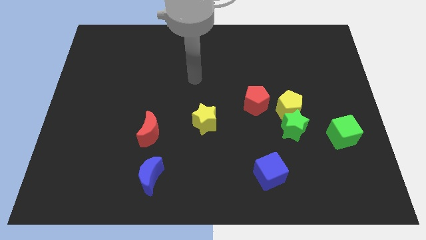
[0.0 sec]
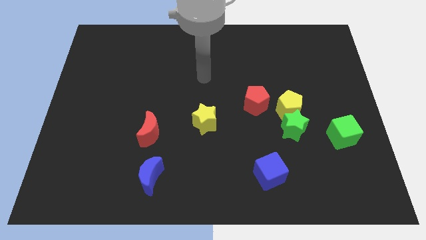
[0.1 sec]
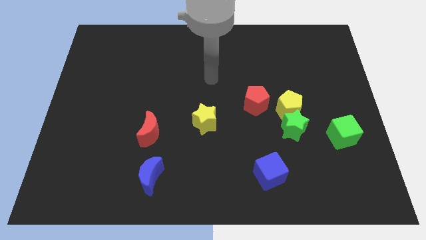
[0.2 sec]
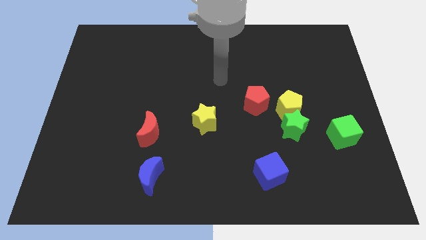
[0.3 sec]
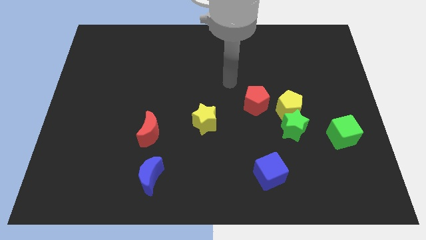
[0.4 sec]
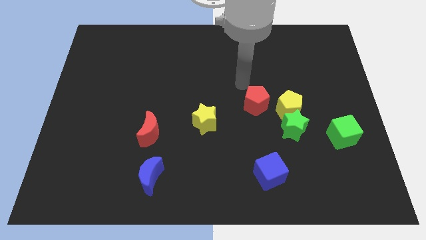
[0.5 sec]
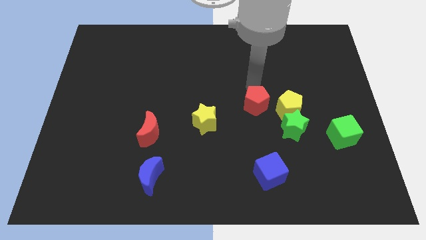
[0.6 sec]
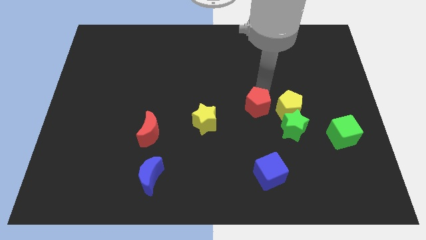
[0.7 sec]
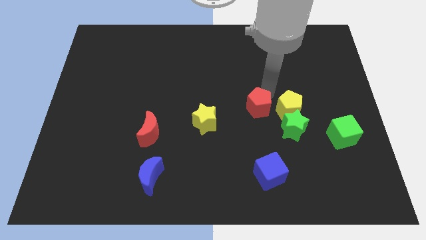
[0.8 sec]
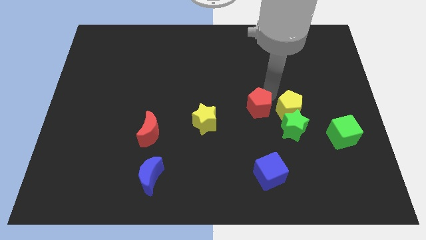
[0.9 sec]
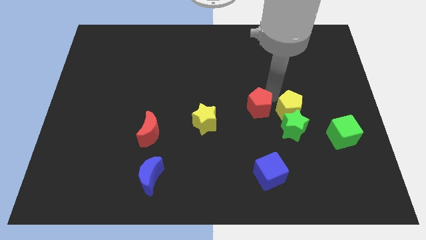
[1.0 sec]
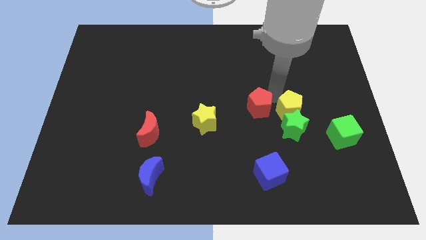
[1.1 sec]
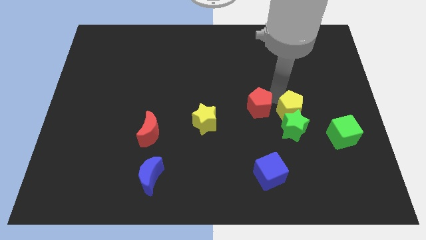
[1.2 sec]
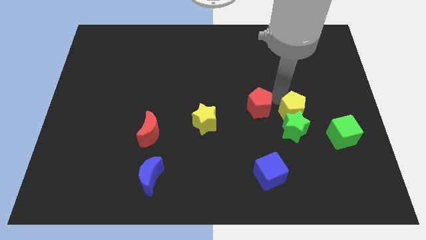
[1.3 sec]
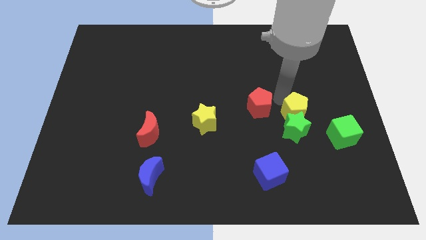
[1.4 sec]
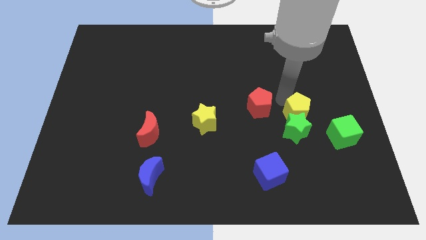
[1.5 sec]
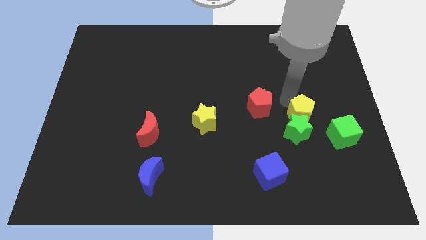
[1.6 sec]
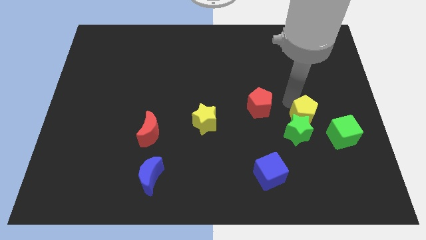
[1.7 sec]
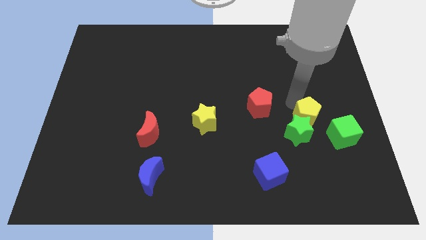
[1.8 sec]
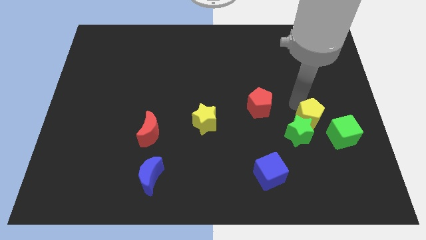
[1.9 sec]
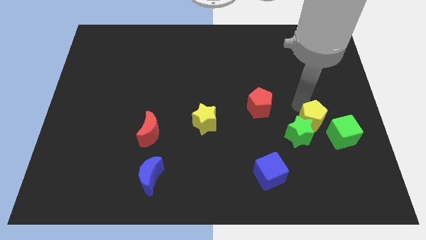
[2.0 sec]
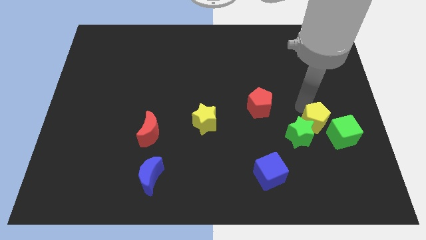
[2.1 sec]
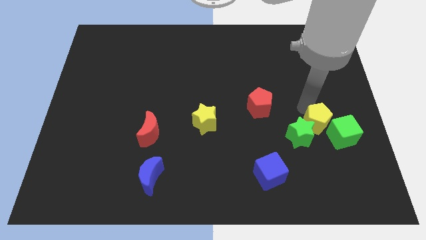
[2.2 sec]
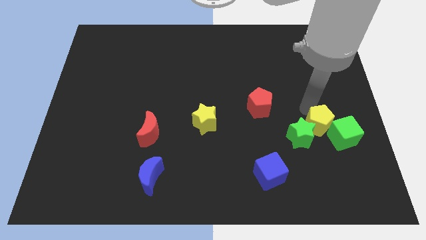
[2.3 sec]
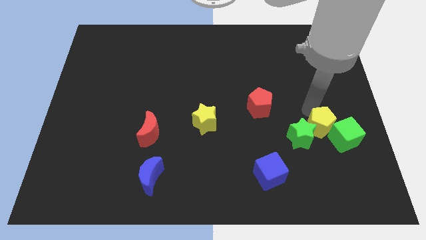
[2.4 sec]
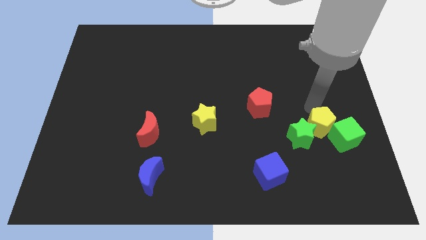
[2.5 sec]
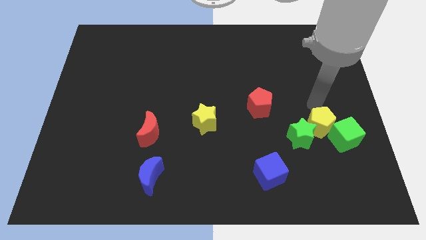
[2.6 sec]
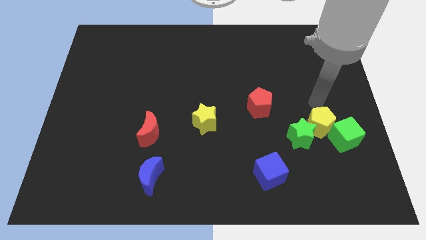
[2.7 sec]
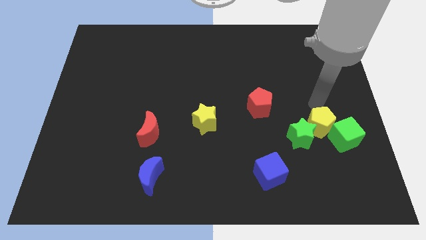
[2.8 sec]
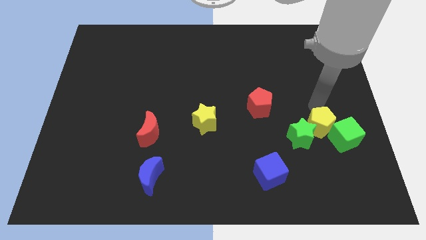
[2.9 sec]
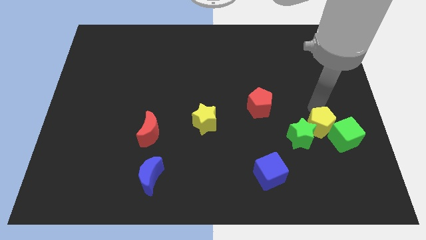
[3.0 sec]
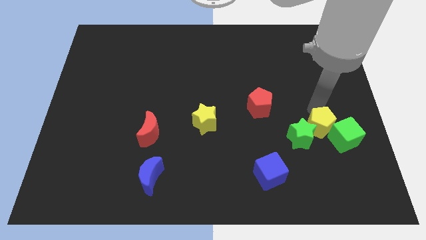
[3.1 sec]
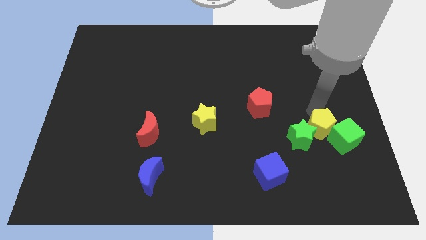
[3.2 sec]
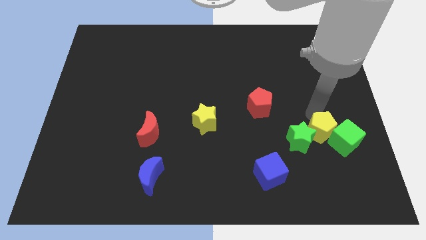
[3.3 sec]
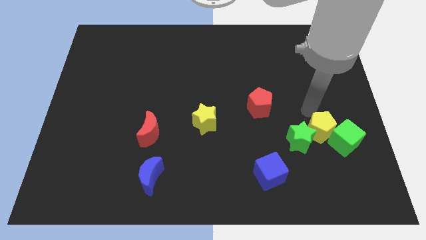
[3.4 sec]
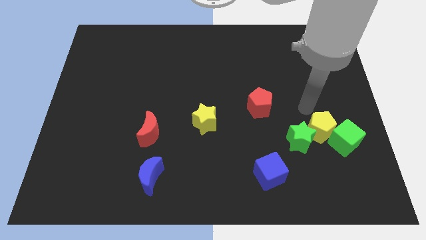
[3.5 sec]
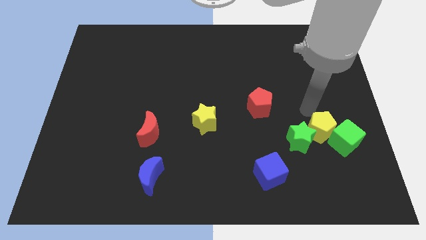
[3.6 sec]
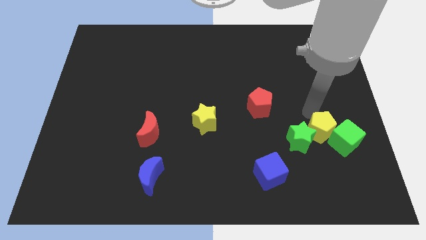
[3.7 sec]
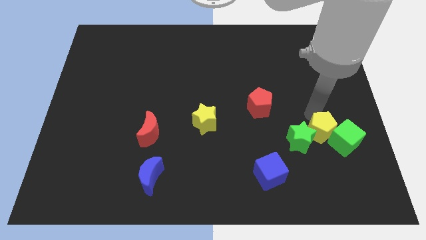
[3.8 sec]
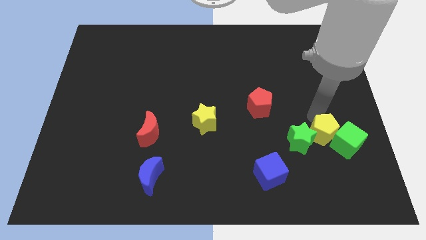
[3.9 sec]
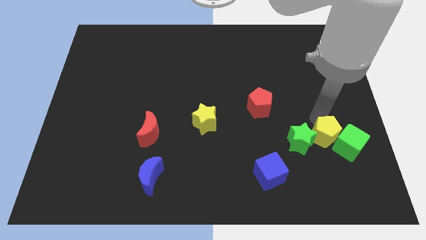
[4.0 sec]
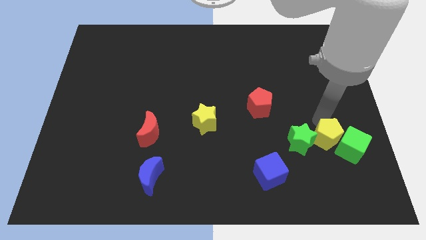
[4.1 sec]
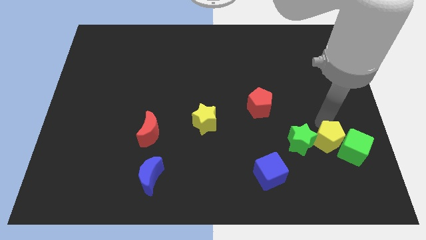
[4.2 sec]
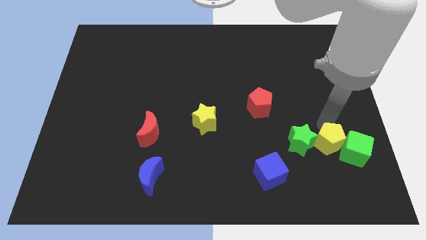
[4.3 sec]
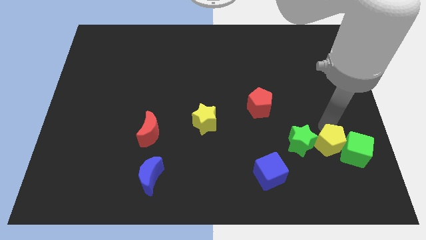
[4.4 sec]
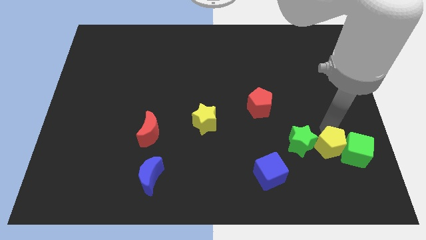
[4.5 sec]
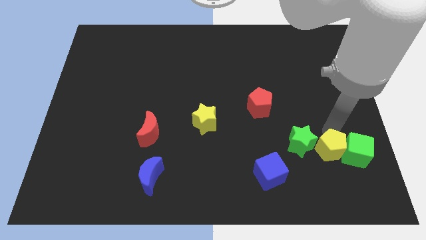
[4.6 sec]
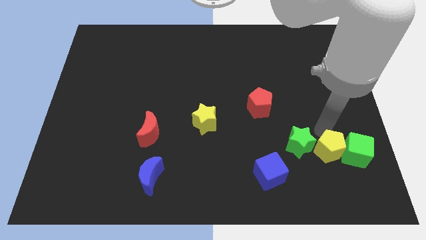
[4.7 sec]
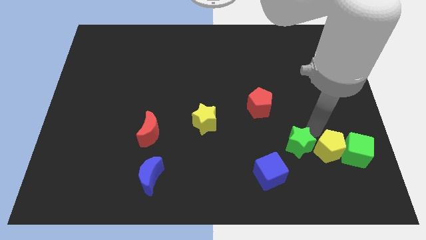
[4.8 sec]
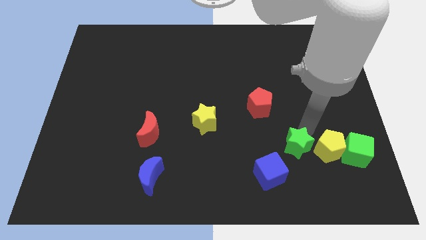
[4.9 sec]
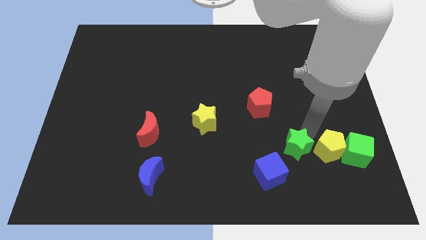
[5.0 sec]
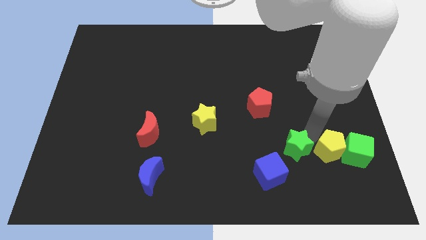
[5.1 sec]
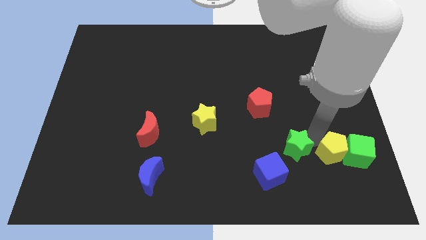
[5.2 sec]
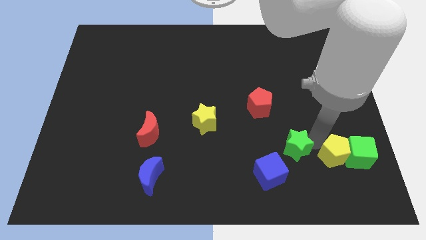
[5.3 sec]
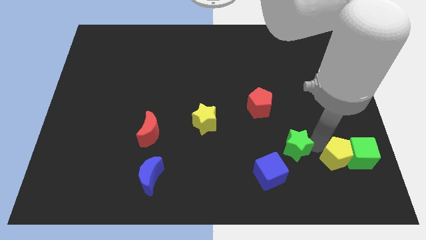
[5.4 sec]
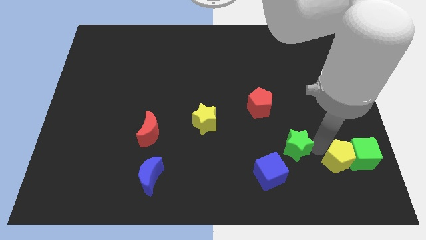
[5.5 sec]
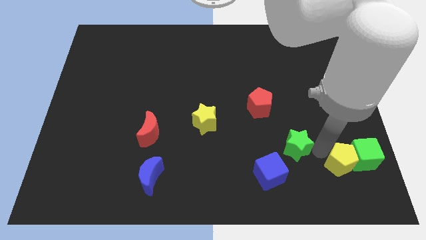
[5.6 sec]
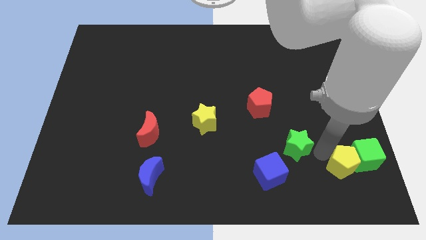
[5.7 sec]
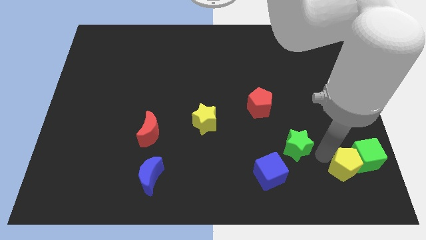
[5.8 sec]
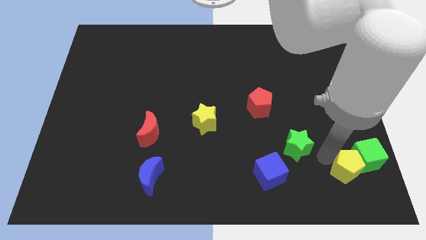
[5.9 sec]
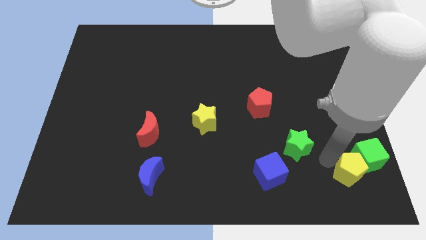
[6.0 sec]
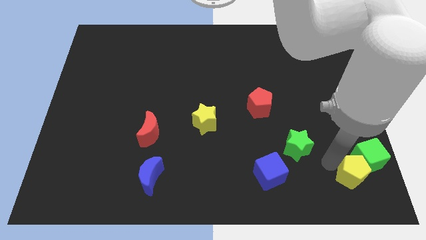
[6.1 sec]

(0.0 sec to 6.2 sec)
push the yellow pentagon to the bottom right

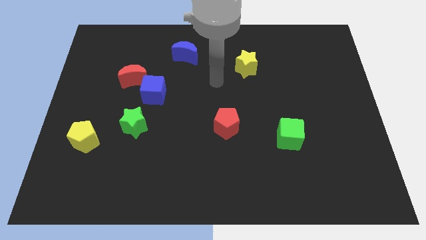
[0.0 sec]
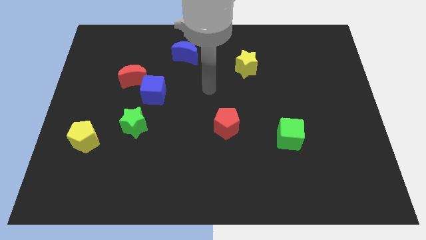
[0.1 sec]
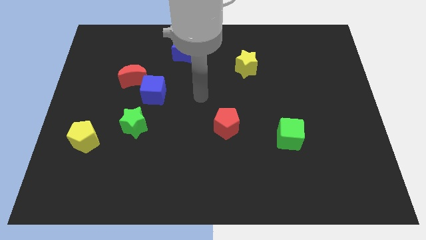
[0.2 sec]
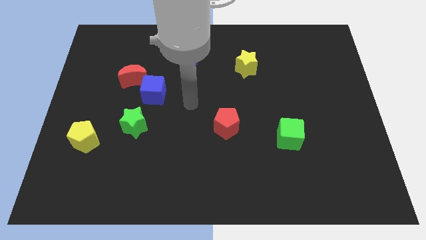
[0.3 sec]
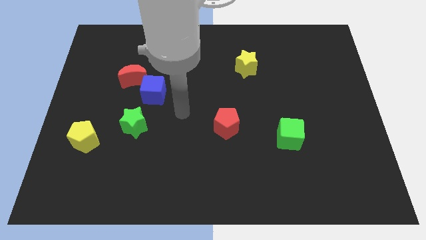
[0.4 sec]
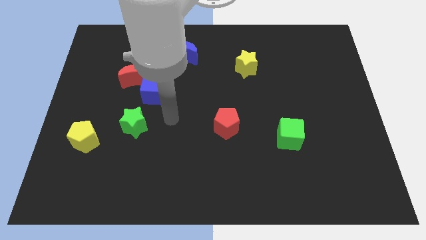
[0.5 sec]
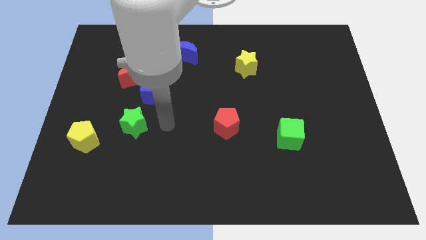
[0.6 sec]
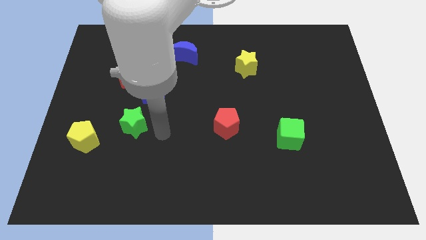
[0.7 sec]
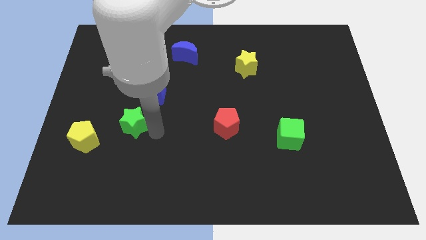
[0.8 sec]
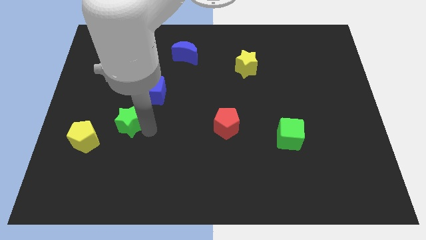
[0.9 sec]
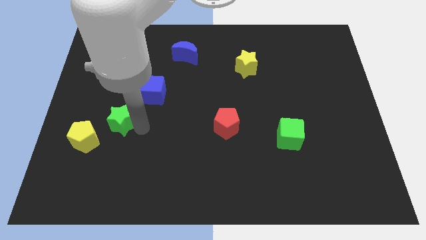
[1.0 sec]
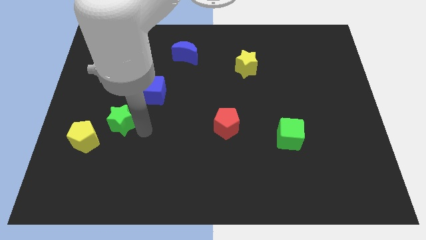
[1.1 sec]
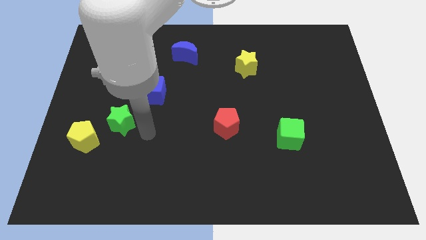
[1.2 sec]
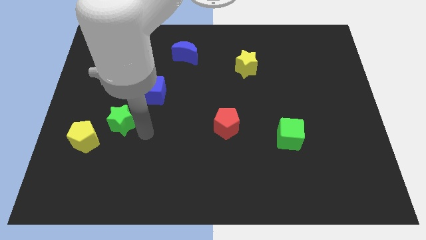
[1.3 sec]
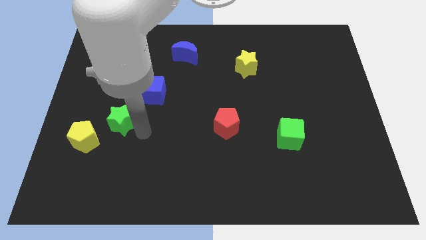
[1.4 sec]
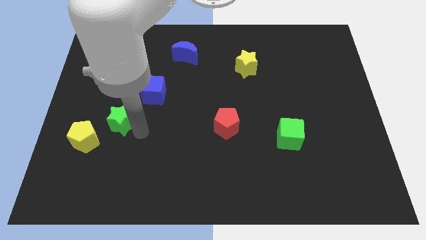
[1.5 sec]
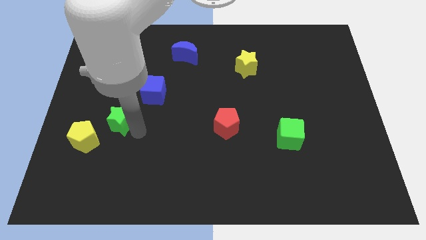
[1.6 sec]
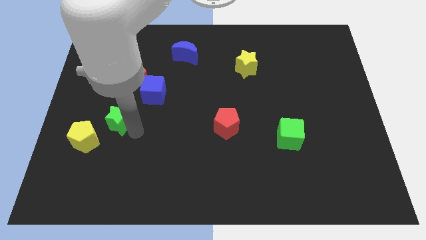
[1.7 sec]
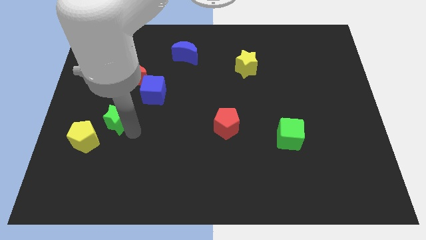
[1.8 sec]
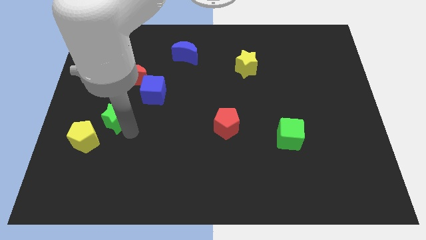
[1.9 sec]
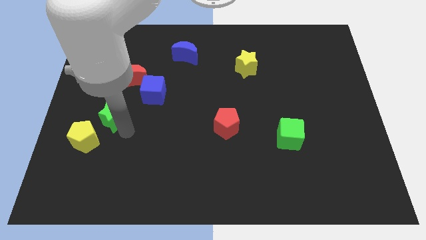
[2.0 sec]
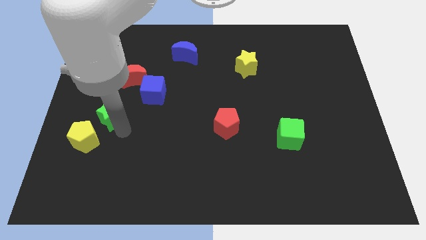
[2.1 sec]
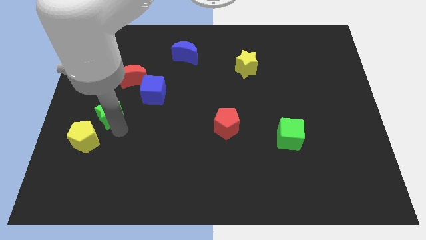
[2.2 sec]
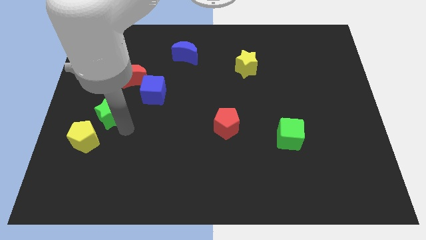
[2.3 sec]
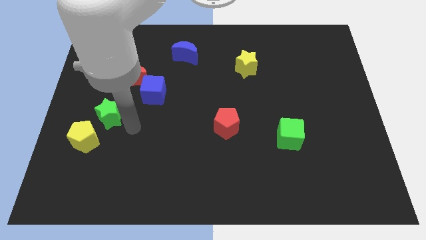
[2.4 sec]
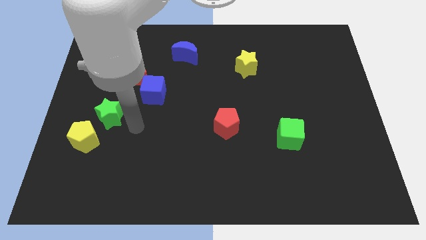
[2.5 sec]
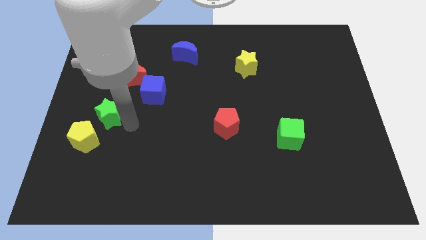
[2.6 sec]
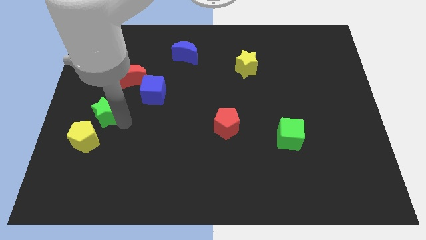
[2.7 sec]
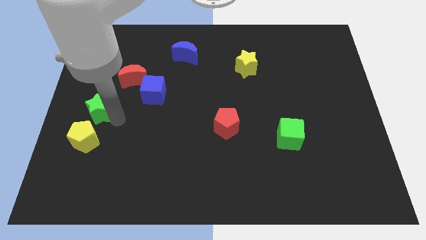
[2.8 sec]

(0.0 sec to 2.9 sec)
move the green star to the left side of the board
